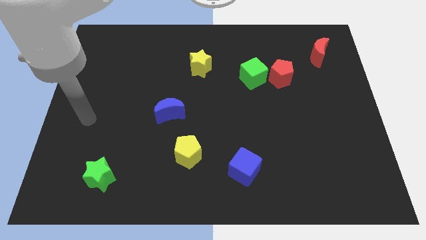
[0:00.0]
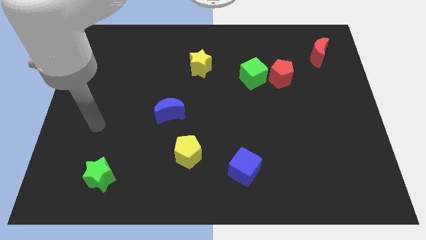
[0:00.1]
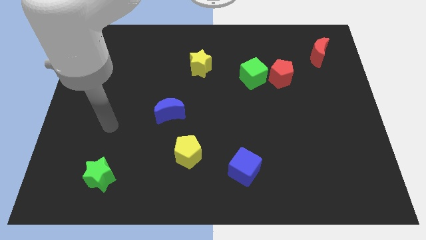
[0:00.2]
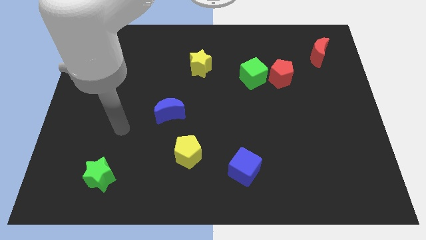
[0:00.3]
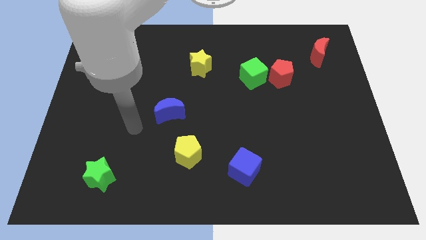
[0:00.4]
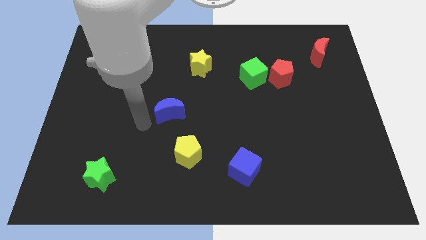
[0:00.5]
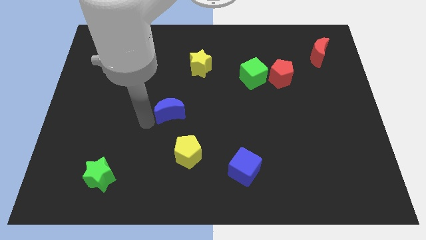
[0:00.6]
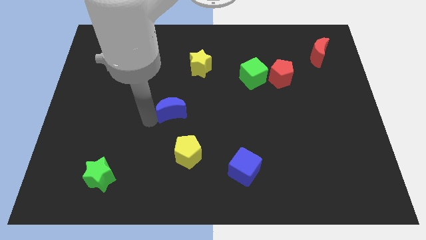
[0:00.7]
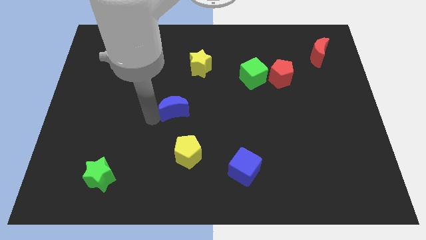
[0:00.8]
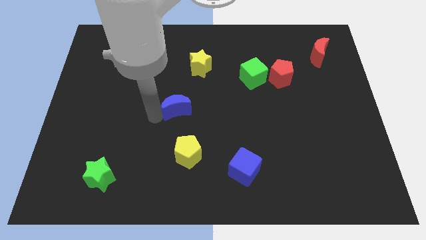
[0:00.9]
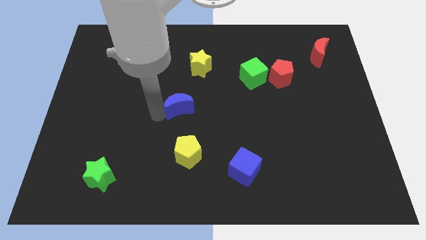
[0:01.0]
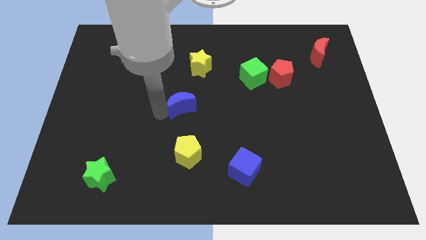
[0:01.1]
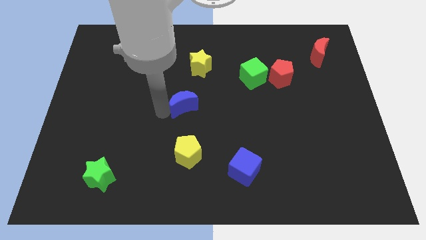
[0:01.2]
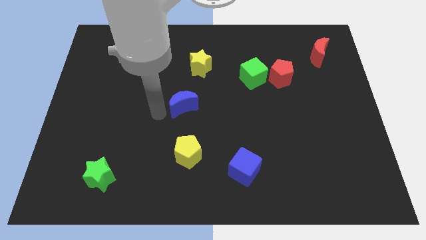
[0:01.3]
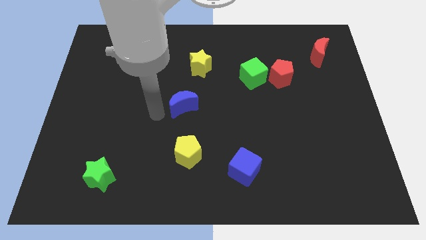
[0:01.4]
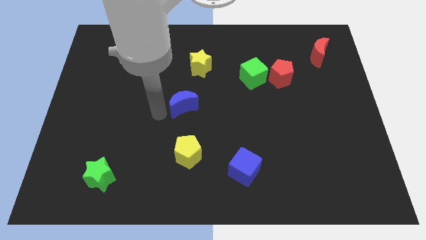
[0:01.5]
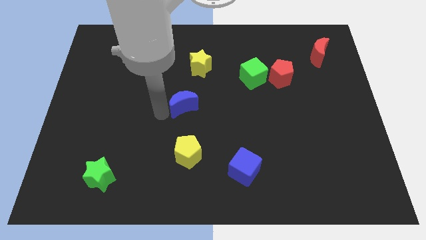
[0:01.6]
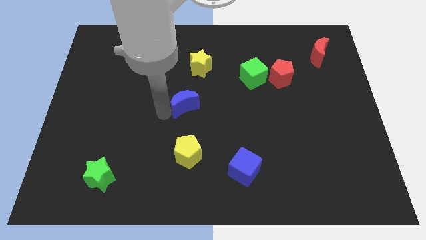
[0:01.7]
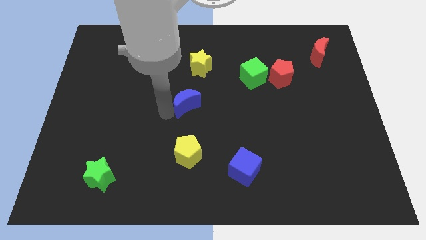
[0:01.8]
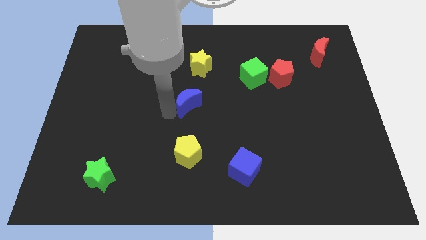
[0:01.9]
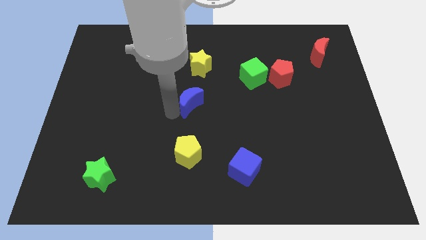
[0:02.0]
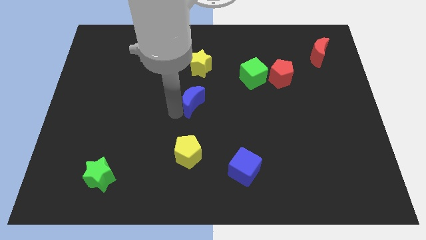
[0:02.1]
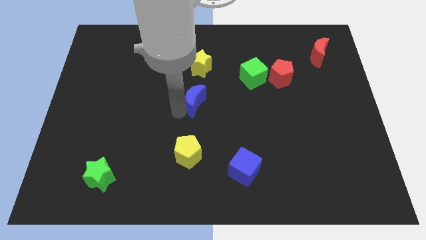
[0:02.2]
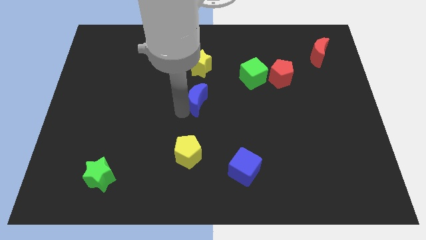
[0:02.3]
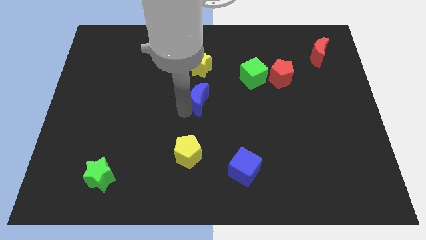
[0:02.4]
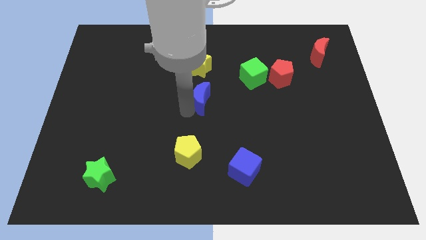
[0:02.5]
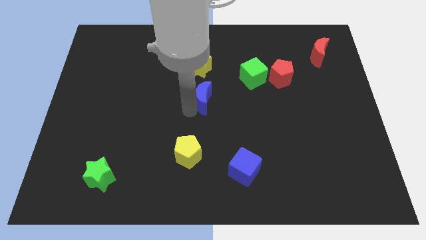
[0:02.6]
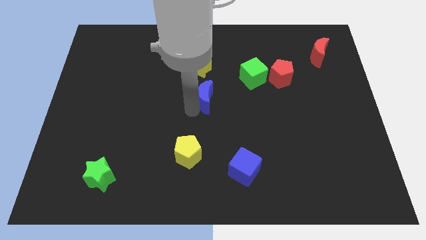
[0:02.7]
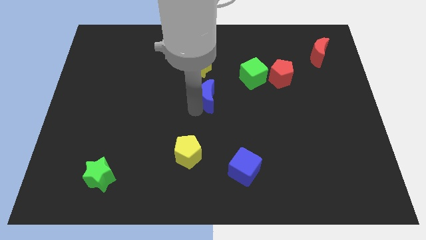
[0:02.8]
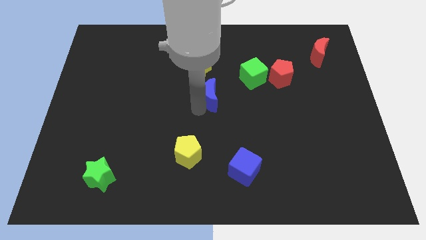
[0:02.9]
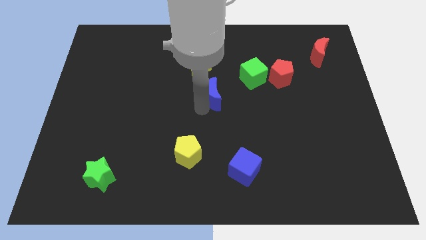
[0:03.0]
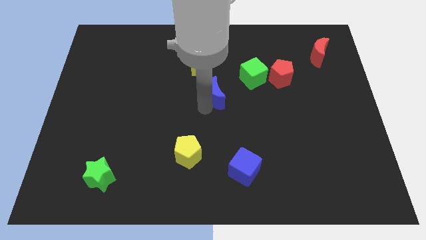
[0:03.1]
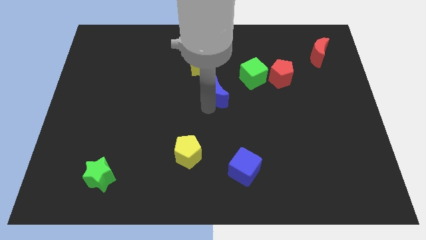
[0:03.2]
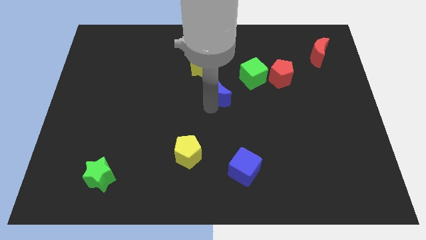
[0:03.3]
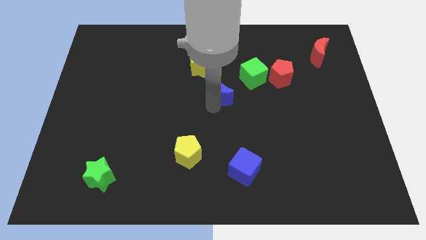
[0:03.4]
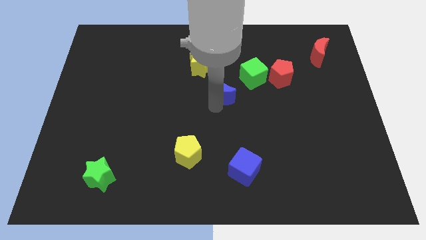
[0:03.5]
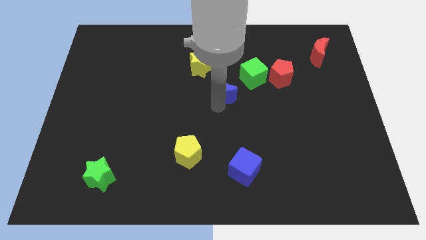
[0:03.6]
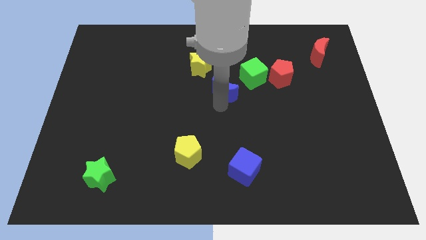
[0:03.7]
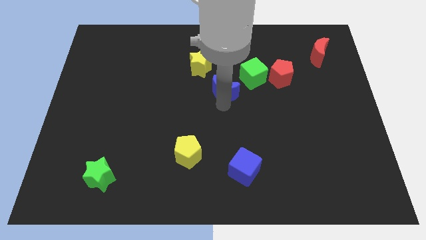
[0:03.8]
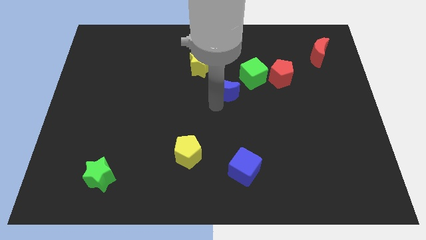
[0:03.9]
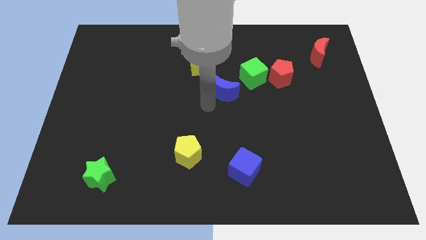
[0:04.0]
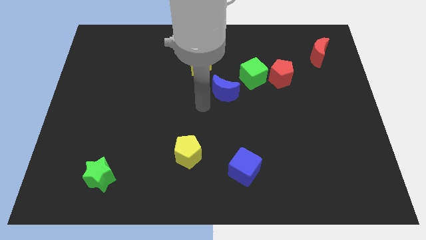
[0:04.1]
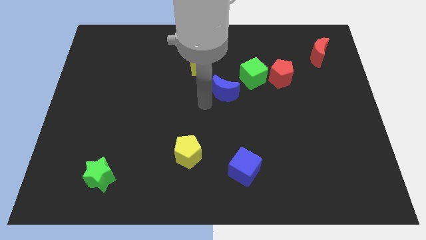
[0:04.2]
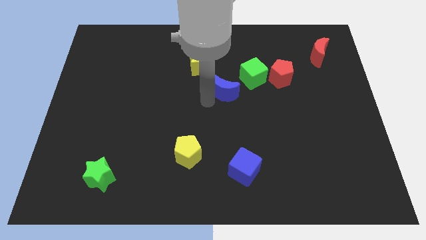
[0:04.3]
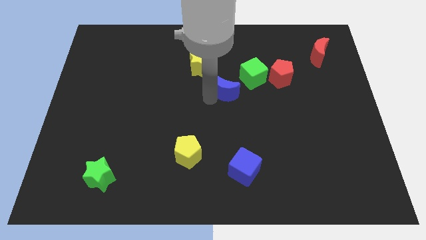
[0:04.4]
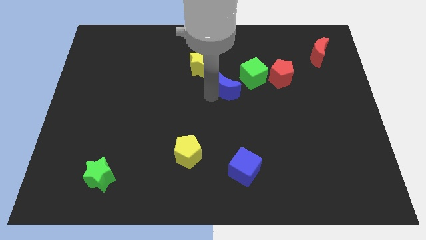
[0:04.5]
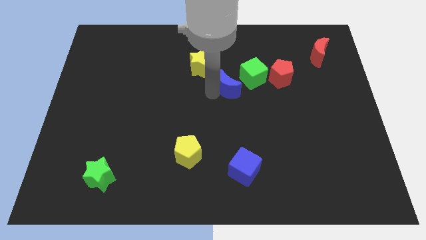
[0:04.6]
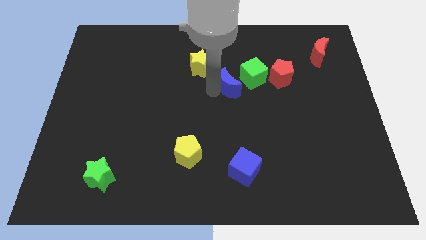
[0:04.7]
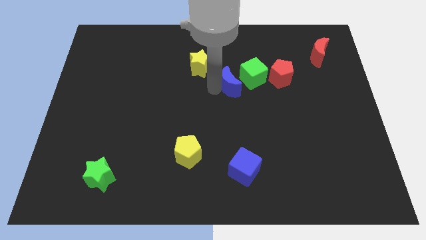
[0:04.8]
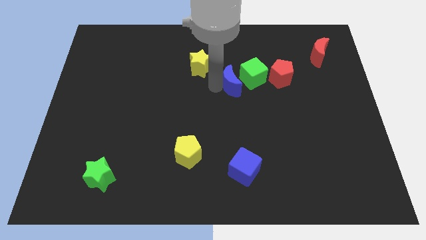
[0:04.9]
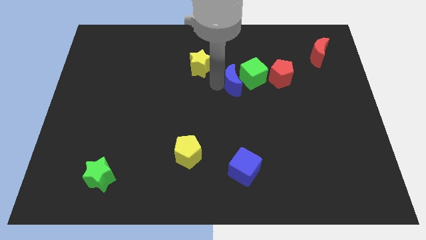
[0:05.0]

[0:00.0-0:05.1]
slide the blue moon close to the green cube

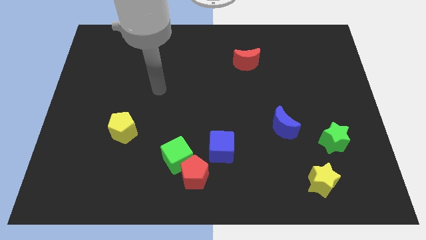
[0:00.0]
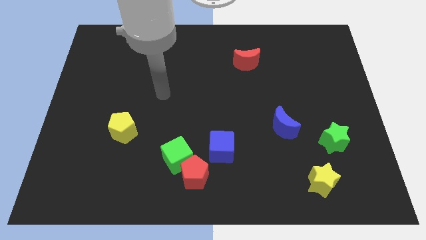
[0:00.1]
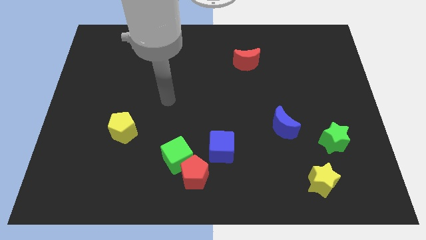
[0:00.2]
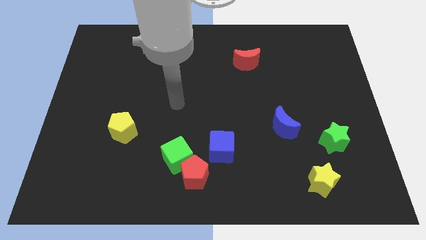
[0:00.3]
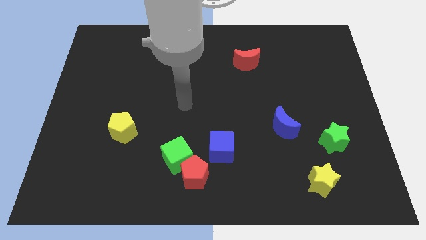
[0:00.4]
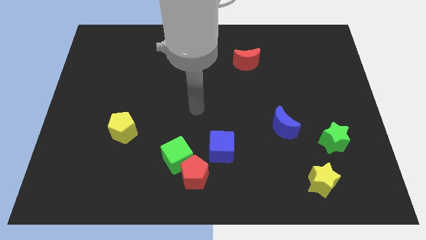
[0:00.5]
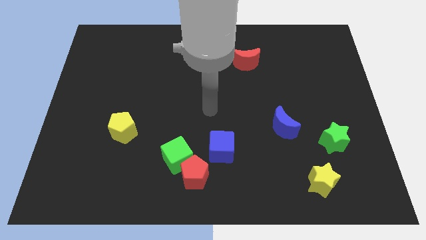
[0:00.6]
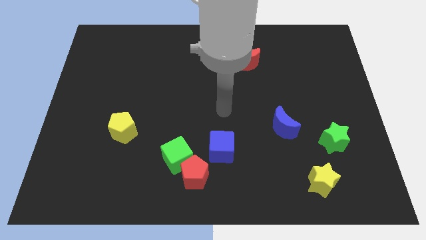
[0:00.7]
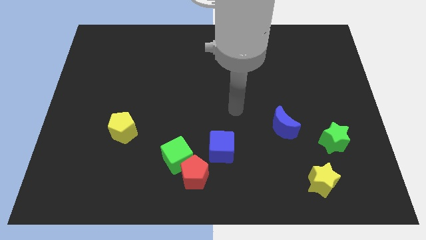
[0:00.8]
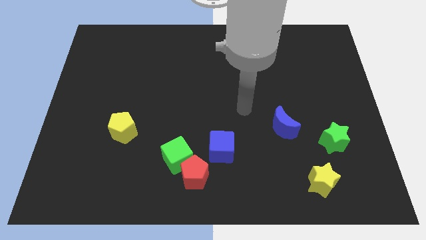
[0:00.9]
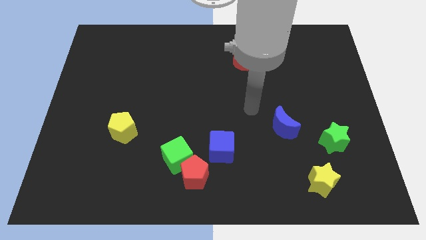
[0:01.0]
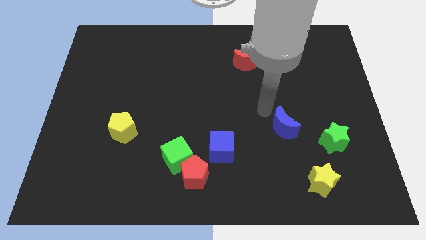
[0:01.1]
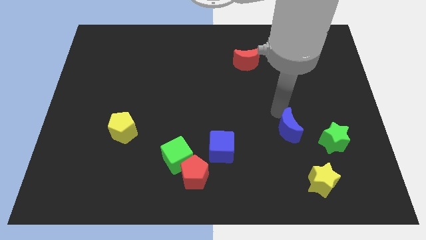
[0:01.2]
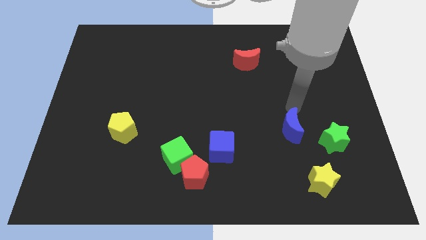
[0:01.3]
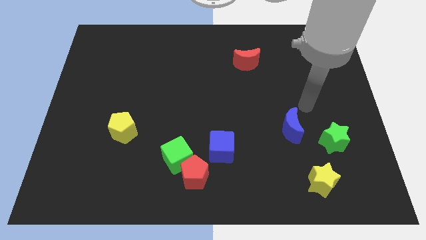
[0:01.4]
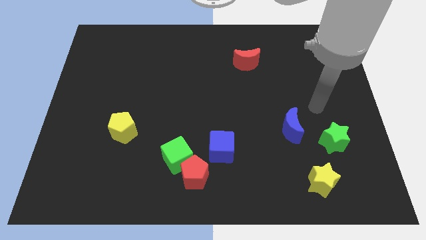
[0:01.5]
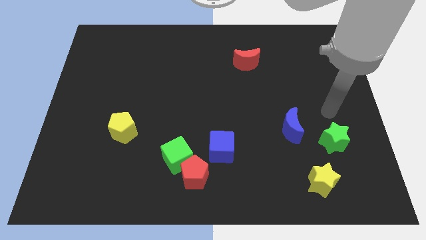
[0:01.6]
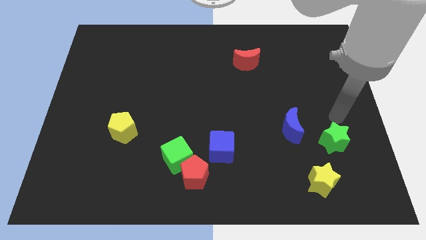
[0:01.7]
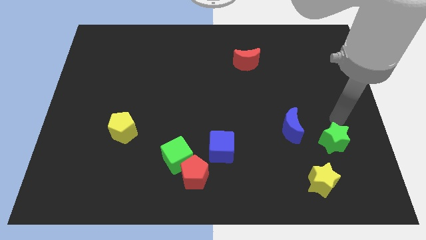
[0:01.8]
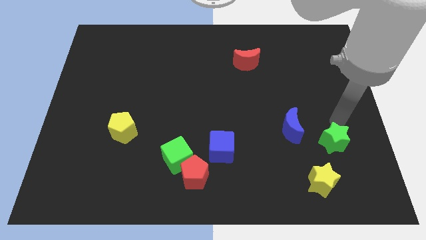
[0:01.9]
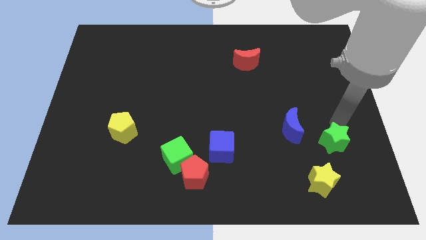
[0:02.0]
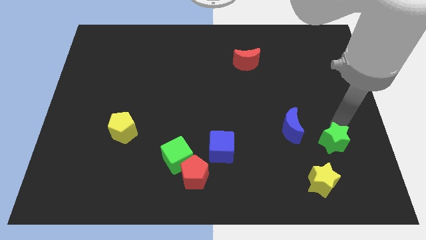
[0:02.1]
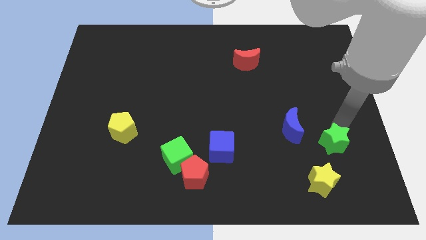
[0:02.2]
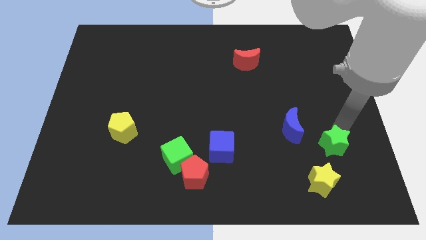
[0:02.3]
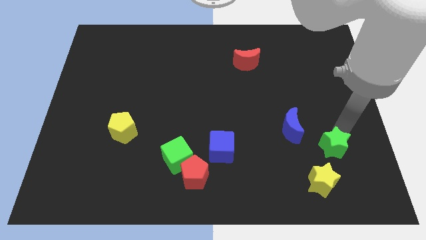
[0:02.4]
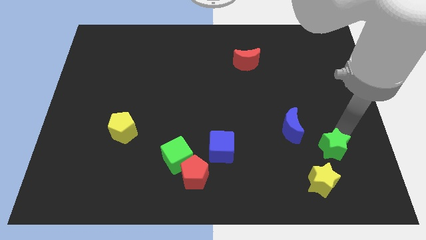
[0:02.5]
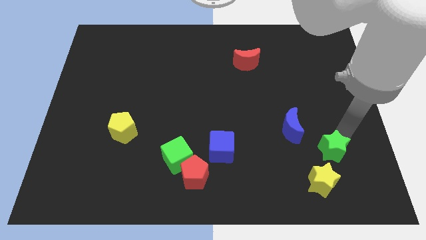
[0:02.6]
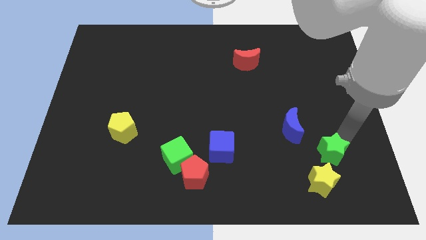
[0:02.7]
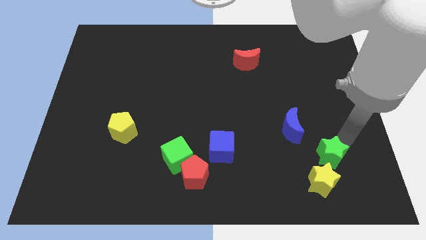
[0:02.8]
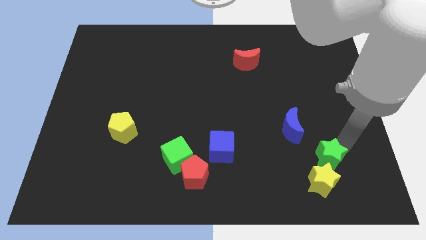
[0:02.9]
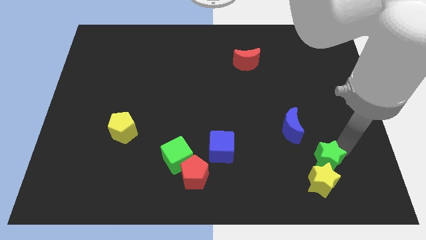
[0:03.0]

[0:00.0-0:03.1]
move the green star towards the yellow star
